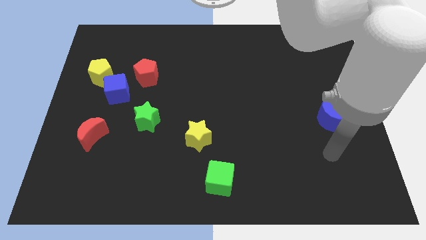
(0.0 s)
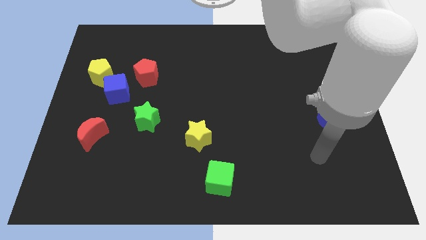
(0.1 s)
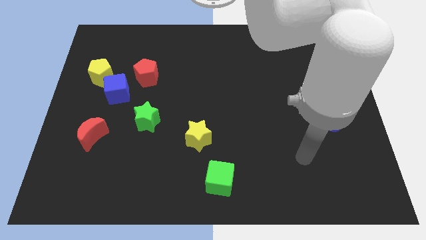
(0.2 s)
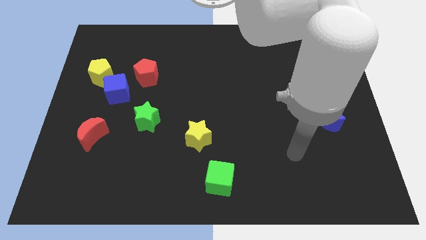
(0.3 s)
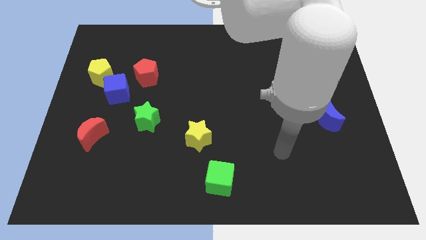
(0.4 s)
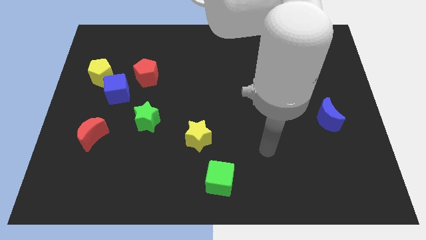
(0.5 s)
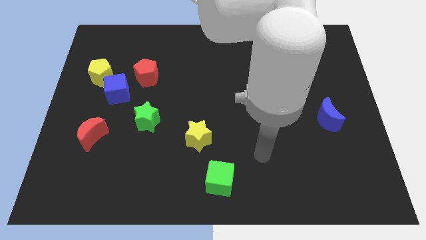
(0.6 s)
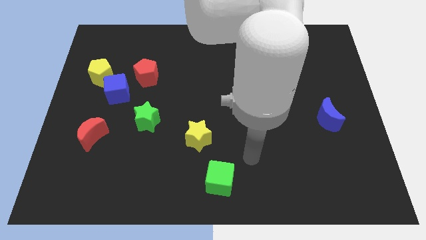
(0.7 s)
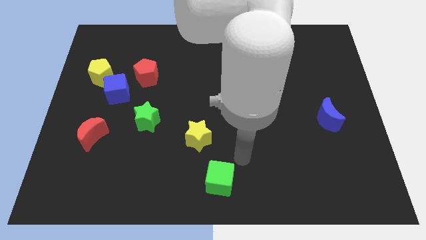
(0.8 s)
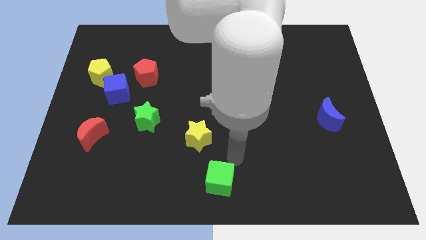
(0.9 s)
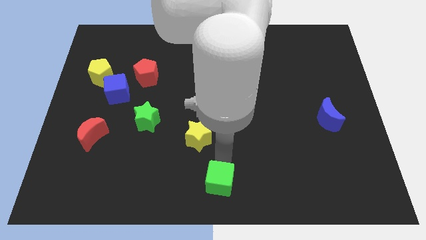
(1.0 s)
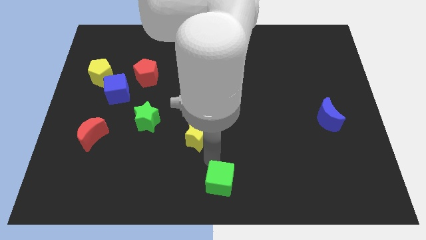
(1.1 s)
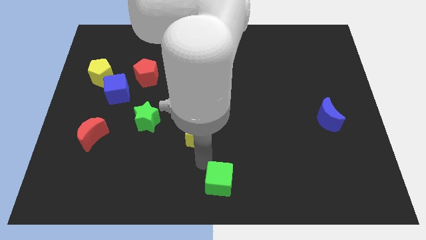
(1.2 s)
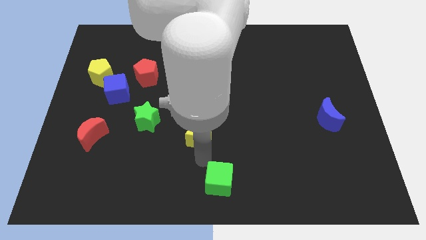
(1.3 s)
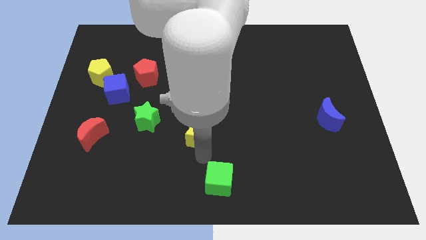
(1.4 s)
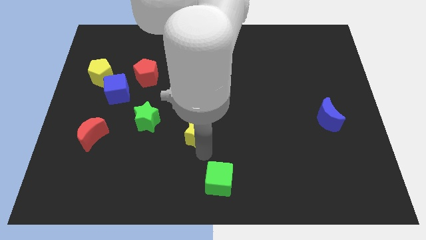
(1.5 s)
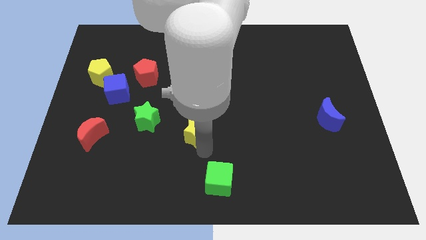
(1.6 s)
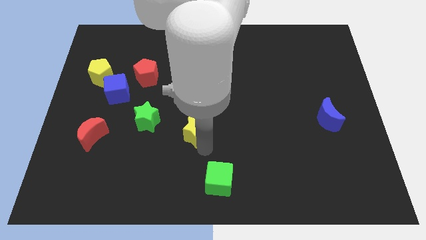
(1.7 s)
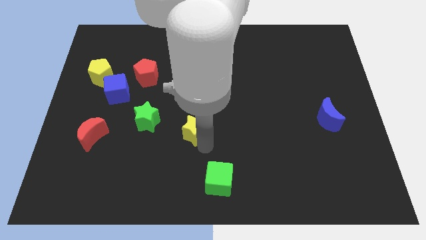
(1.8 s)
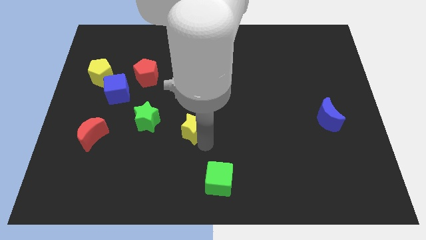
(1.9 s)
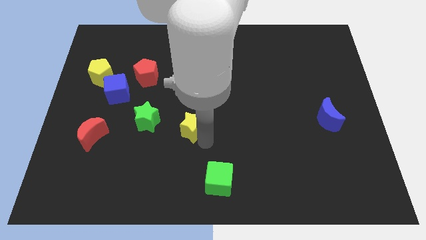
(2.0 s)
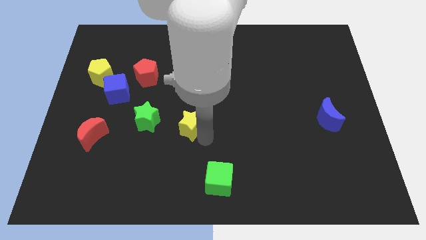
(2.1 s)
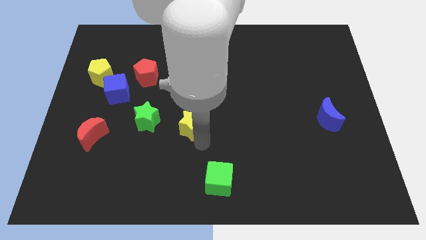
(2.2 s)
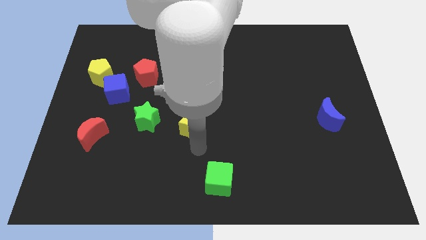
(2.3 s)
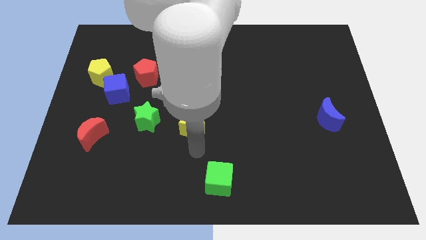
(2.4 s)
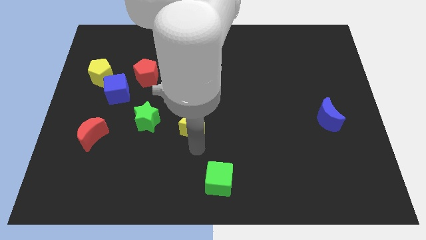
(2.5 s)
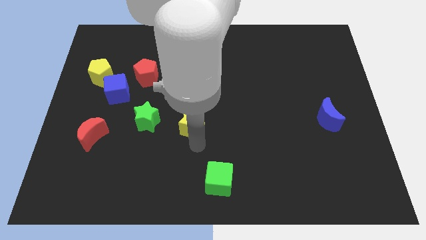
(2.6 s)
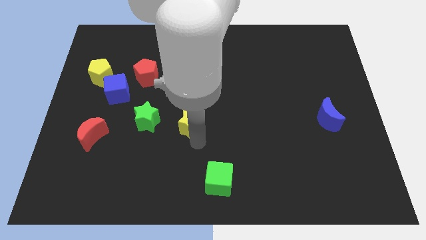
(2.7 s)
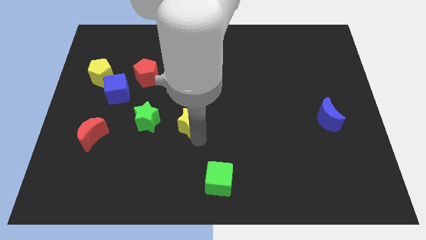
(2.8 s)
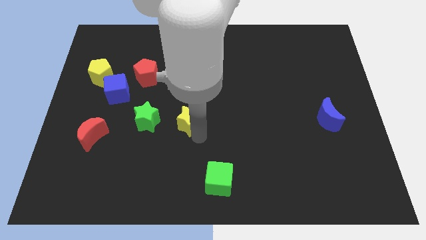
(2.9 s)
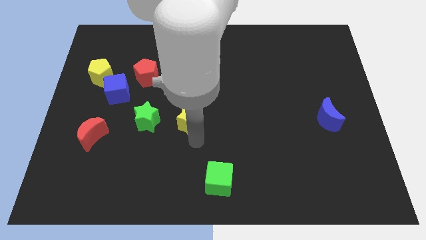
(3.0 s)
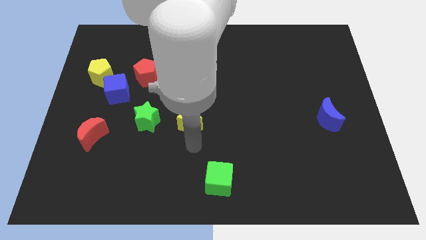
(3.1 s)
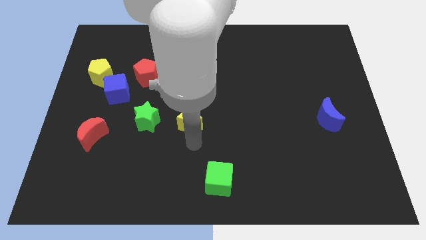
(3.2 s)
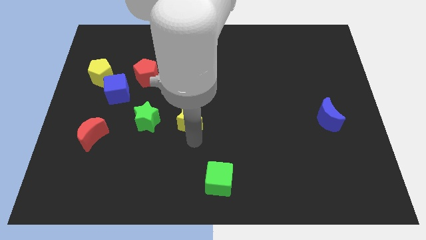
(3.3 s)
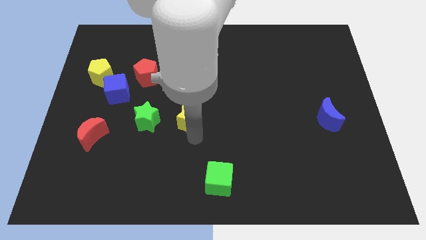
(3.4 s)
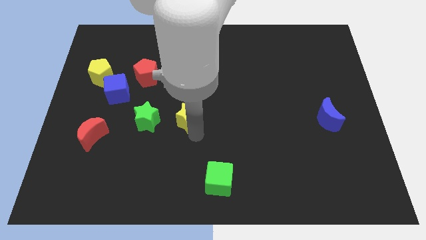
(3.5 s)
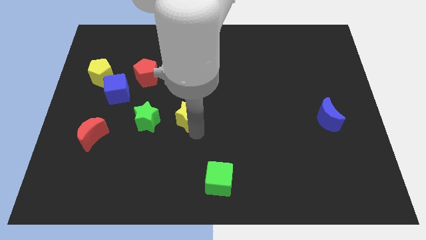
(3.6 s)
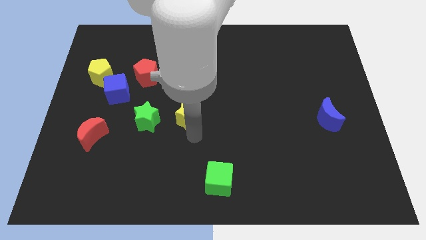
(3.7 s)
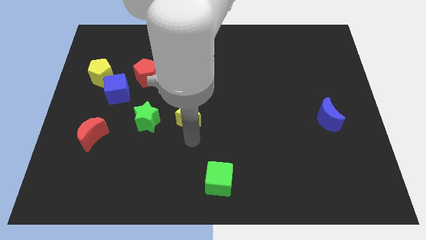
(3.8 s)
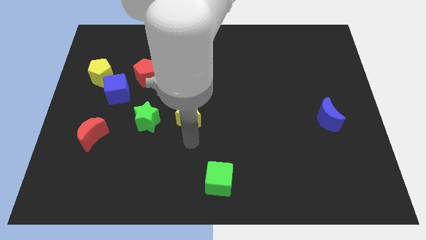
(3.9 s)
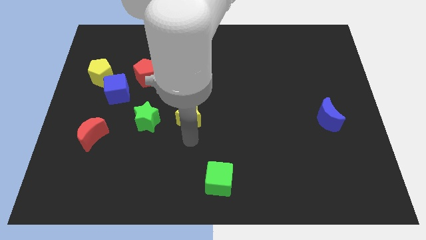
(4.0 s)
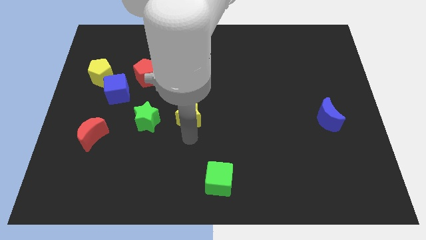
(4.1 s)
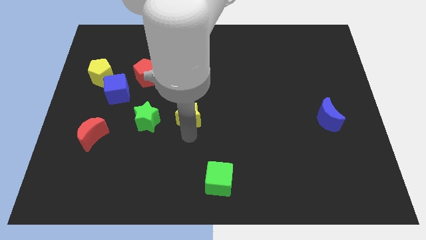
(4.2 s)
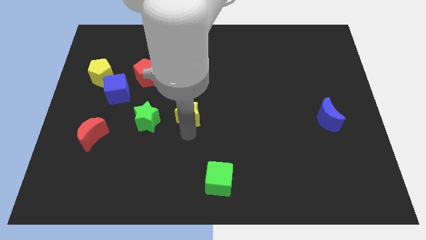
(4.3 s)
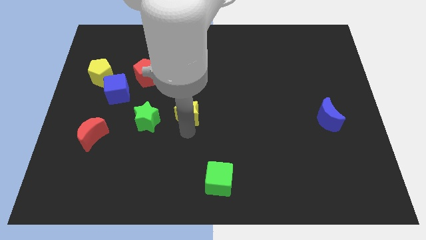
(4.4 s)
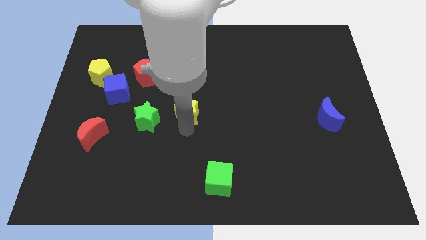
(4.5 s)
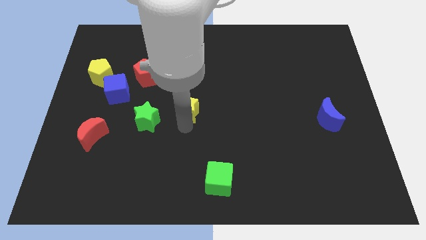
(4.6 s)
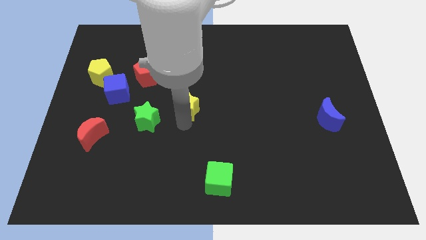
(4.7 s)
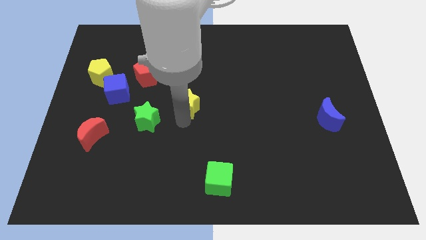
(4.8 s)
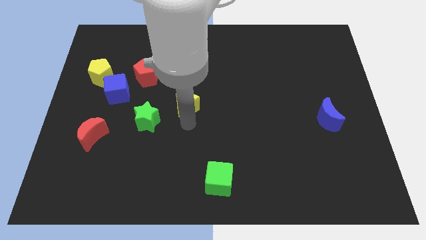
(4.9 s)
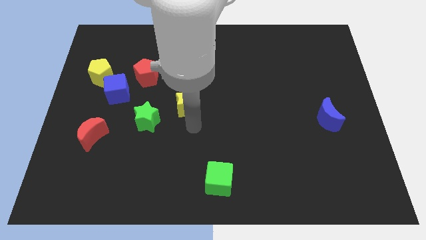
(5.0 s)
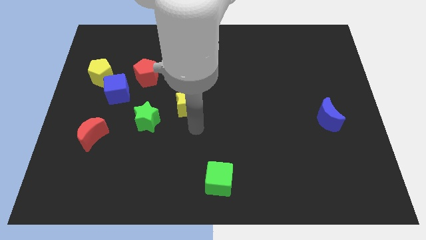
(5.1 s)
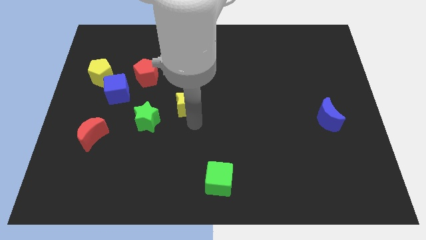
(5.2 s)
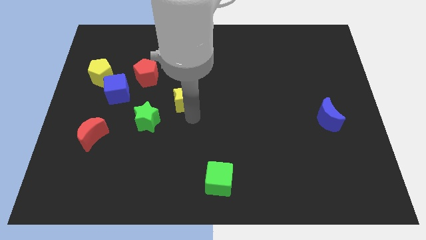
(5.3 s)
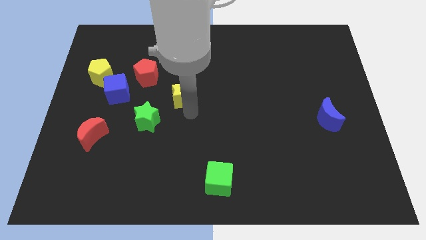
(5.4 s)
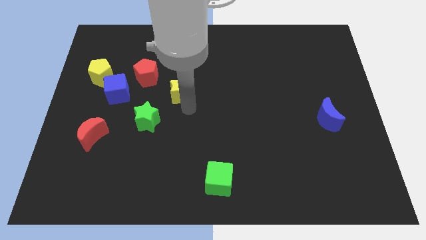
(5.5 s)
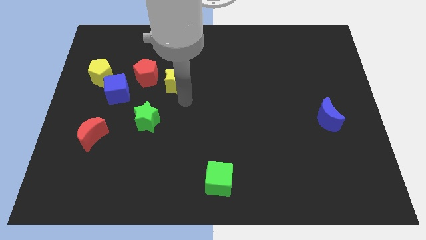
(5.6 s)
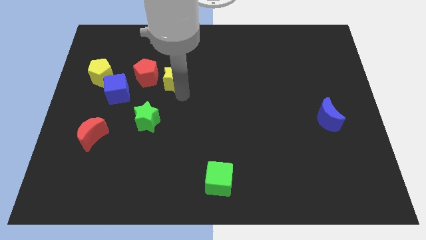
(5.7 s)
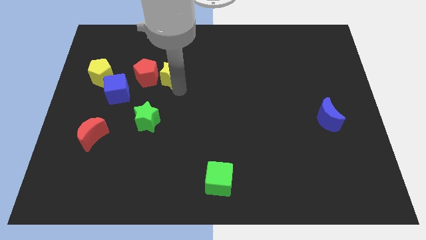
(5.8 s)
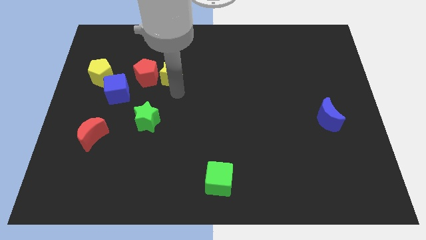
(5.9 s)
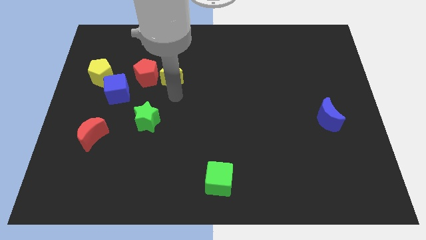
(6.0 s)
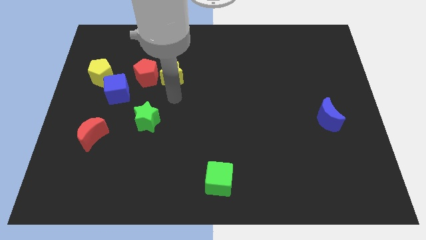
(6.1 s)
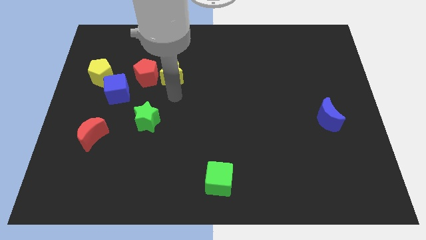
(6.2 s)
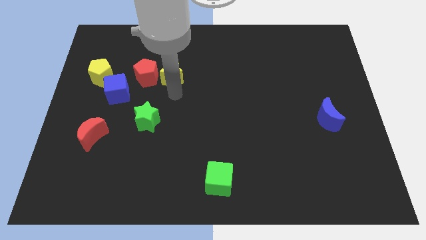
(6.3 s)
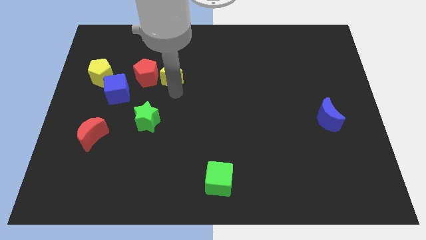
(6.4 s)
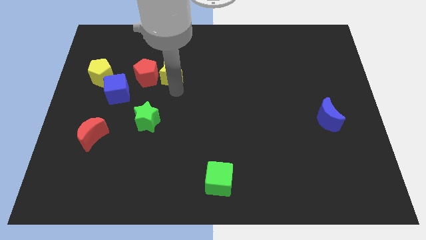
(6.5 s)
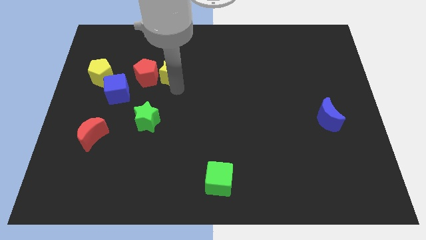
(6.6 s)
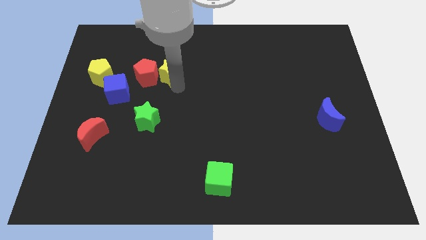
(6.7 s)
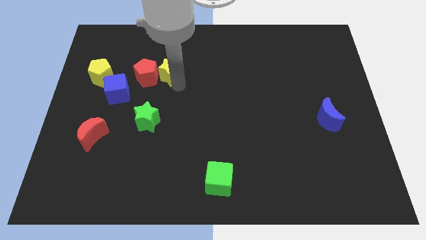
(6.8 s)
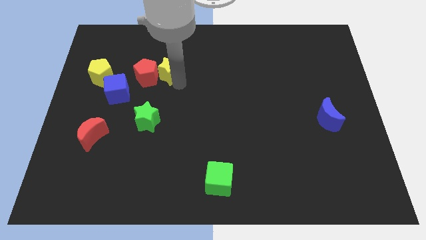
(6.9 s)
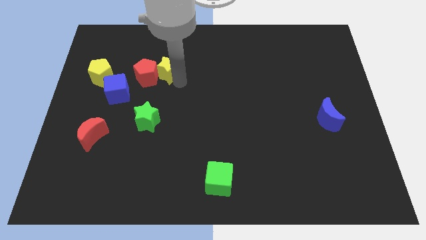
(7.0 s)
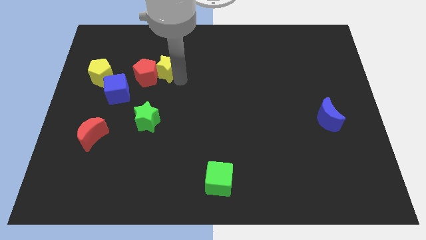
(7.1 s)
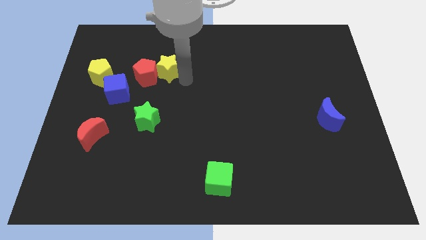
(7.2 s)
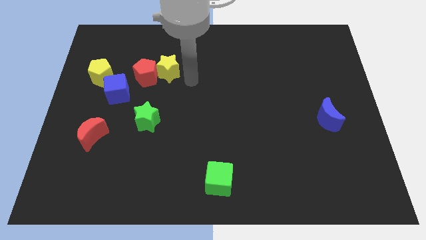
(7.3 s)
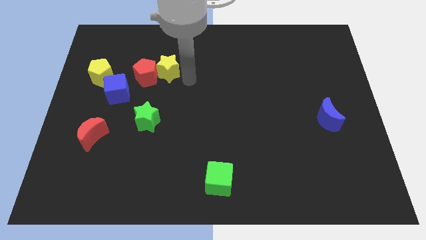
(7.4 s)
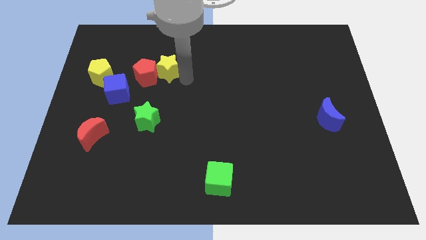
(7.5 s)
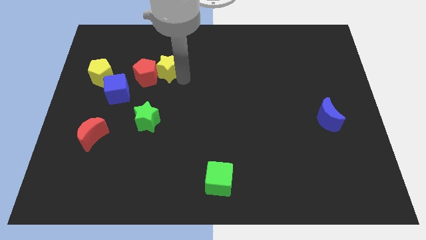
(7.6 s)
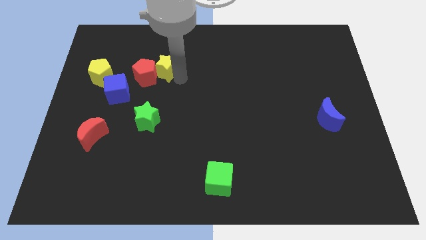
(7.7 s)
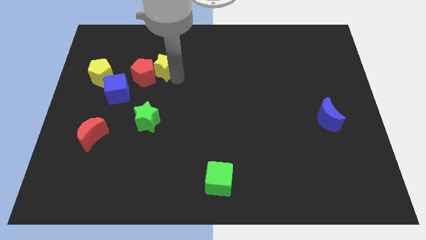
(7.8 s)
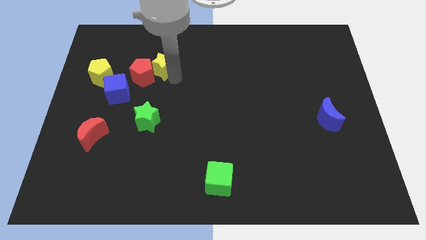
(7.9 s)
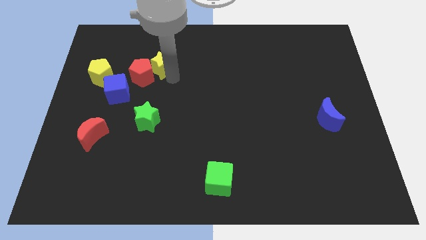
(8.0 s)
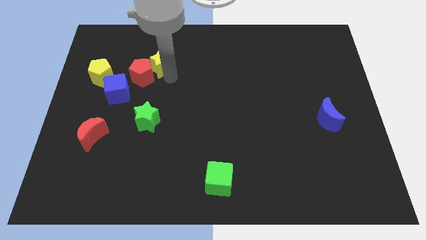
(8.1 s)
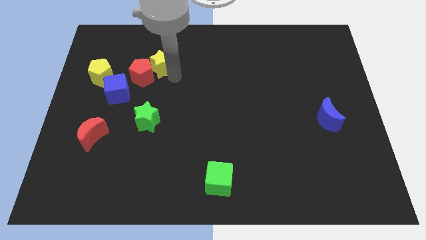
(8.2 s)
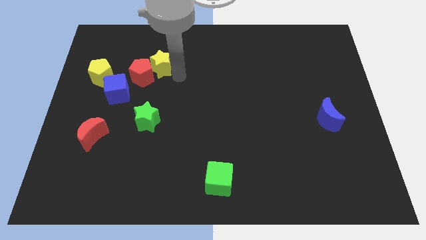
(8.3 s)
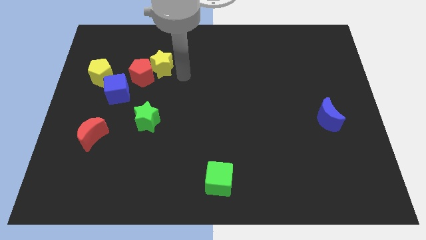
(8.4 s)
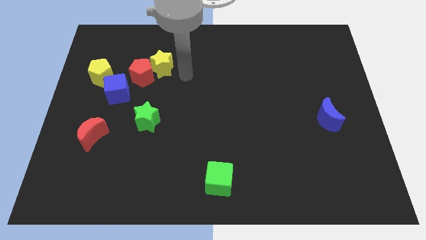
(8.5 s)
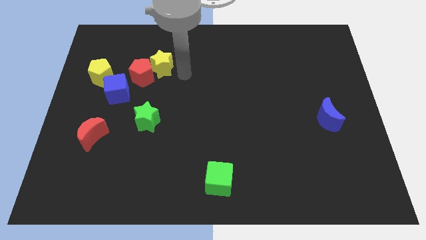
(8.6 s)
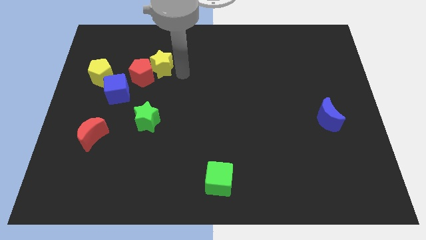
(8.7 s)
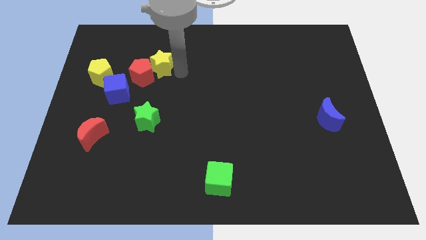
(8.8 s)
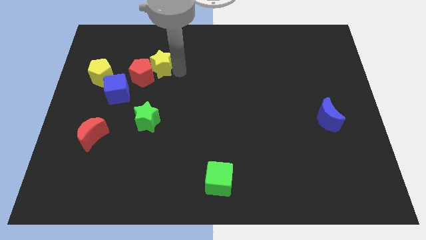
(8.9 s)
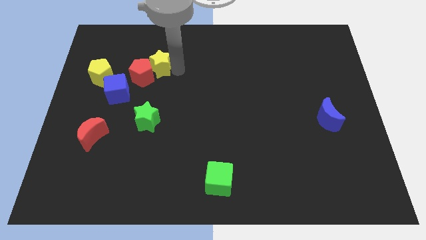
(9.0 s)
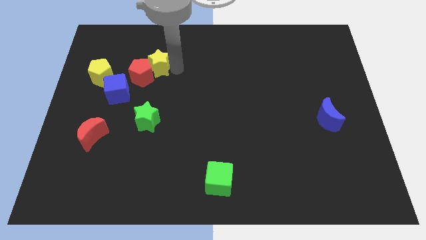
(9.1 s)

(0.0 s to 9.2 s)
slide the yellow star upwards and left diagonally
